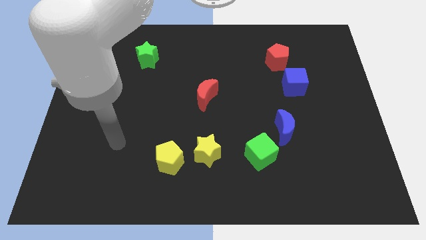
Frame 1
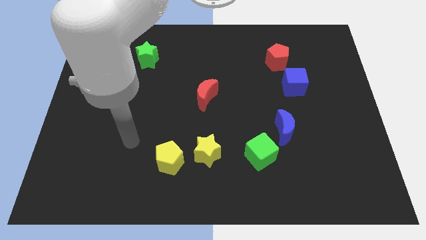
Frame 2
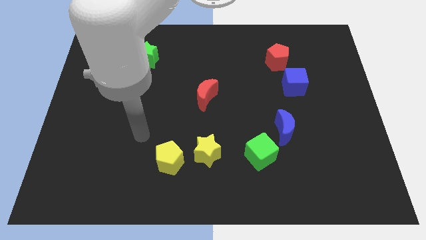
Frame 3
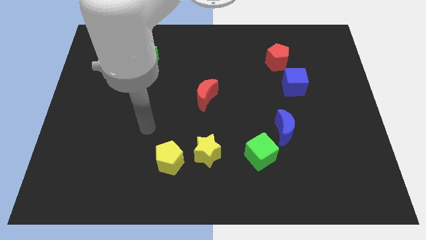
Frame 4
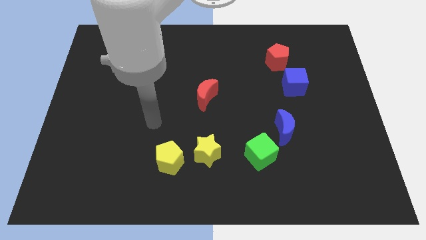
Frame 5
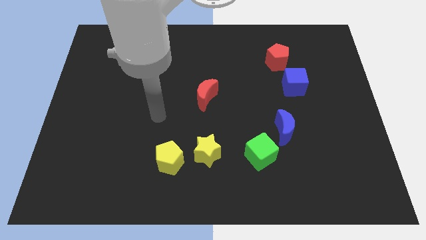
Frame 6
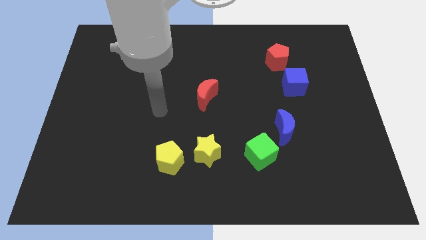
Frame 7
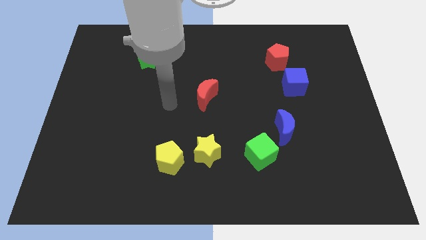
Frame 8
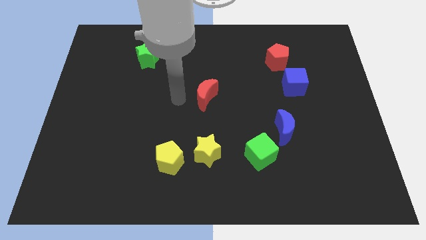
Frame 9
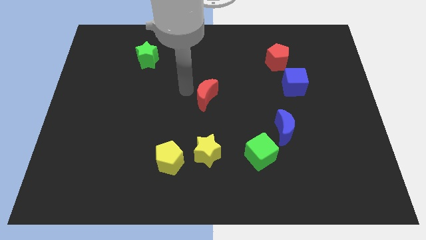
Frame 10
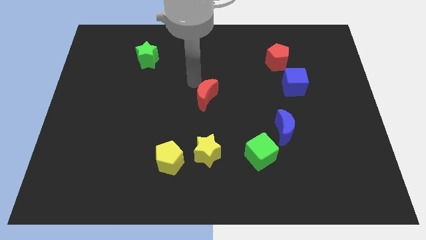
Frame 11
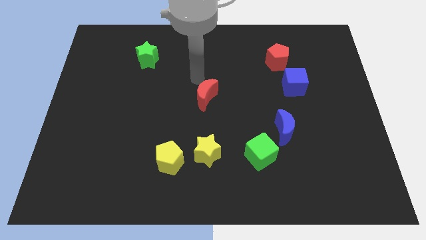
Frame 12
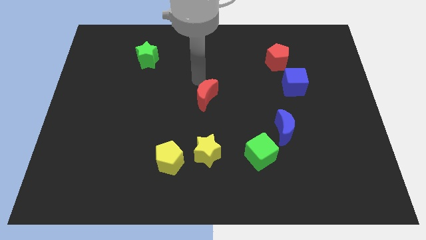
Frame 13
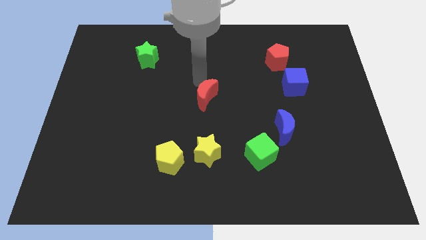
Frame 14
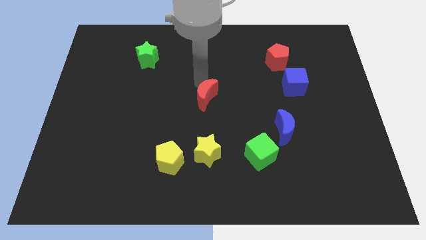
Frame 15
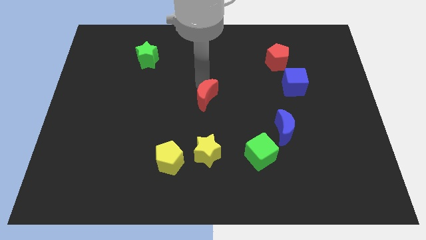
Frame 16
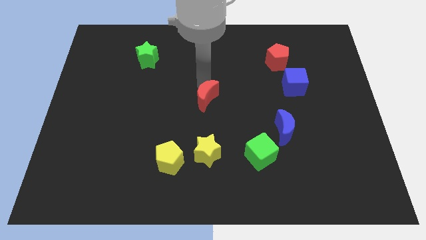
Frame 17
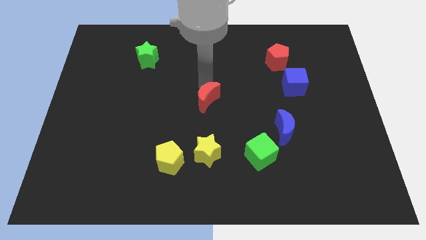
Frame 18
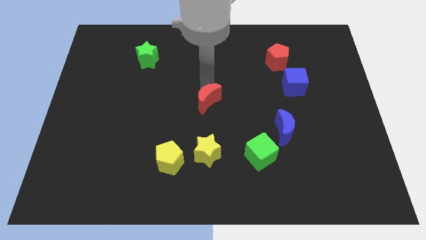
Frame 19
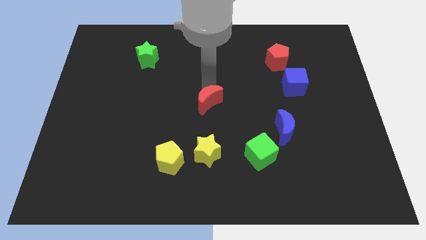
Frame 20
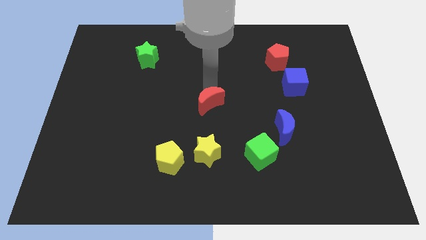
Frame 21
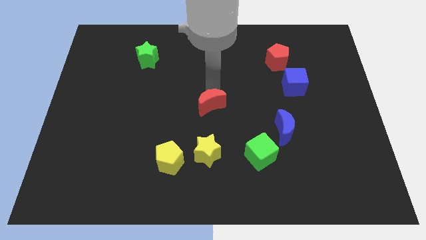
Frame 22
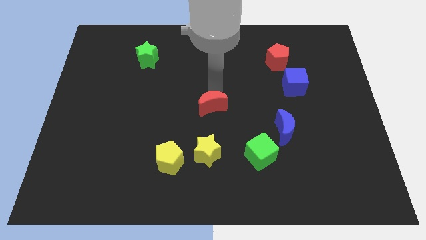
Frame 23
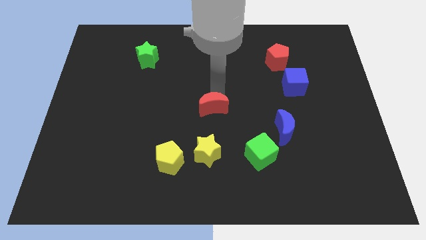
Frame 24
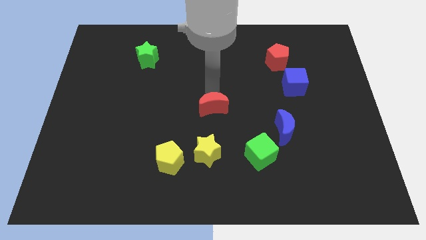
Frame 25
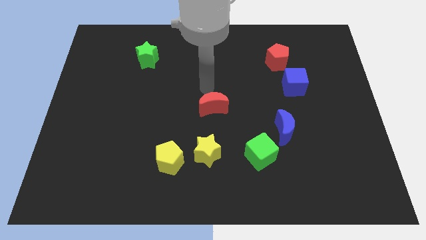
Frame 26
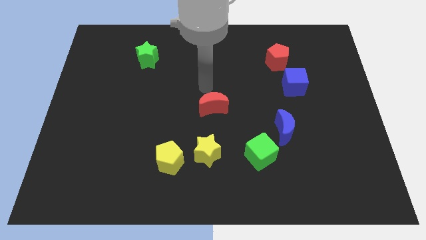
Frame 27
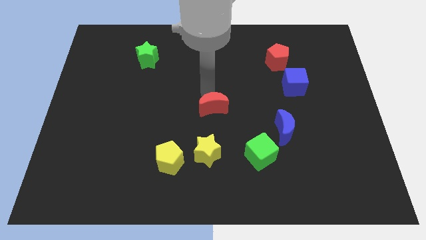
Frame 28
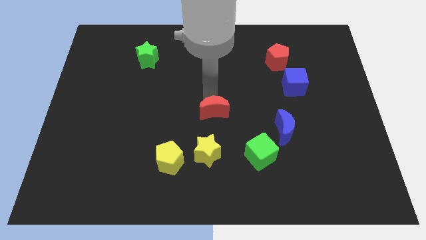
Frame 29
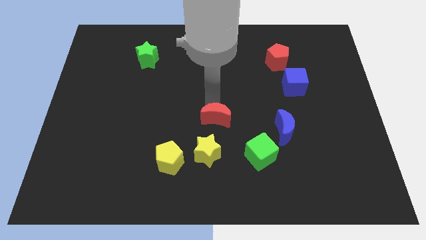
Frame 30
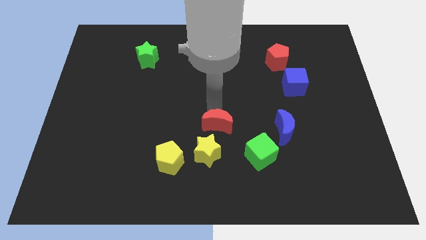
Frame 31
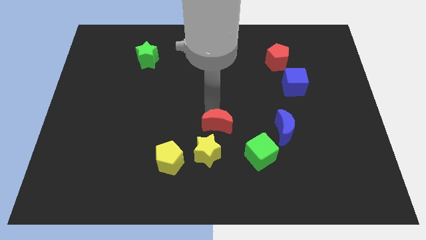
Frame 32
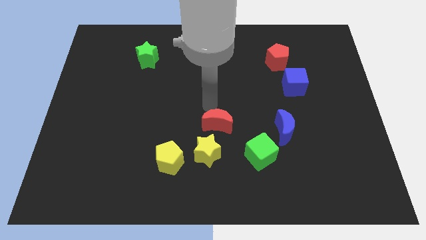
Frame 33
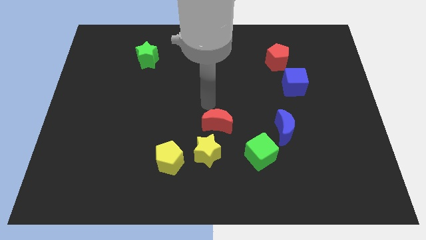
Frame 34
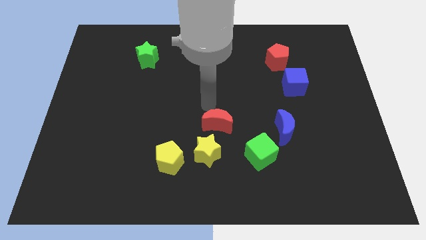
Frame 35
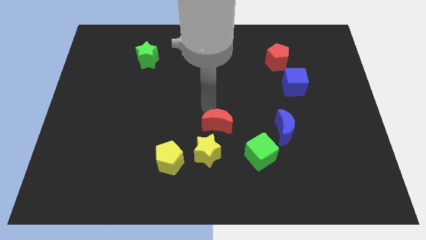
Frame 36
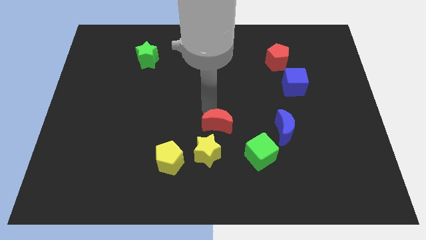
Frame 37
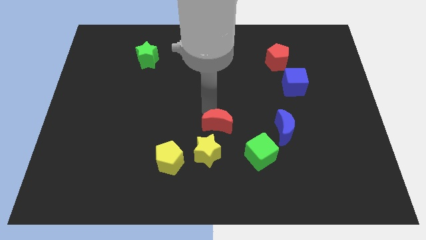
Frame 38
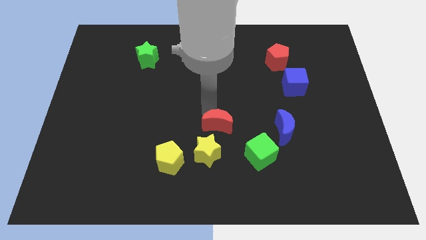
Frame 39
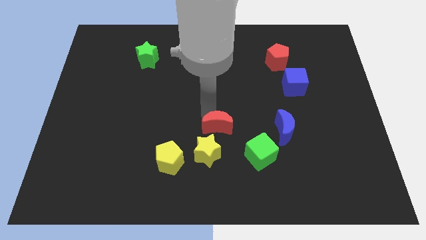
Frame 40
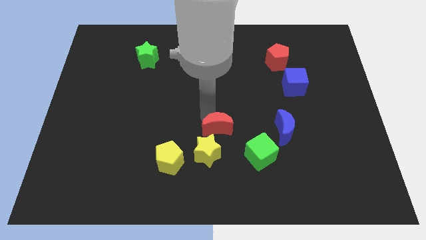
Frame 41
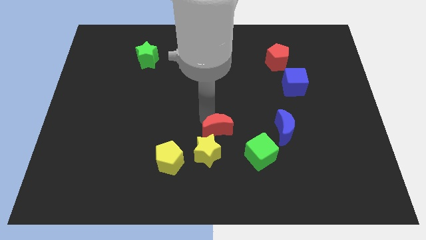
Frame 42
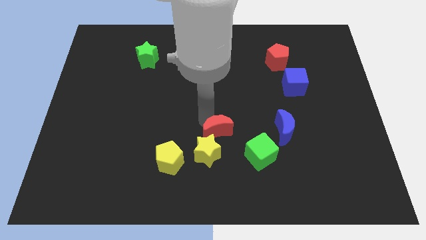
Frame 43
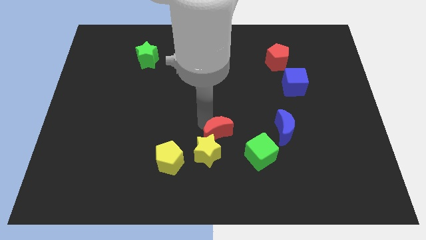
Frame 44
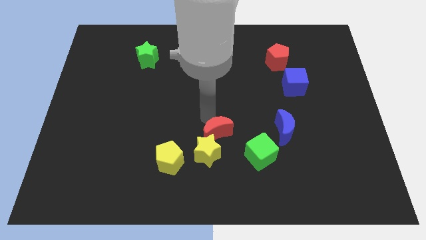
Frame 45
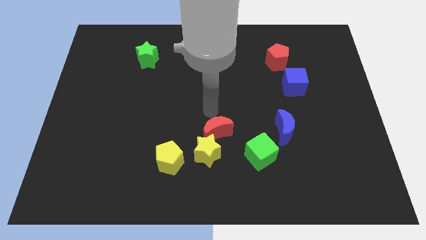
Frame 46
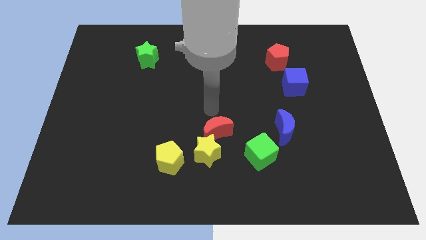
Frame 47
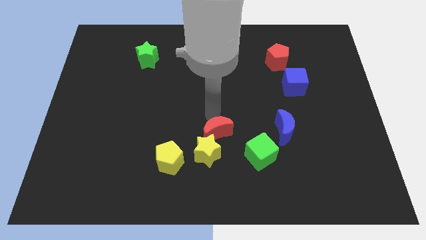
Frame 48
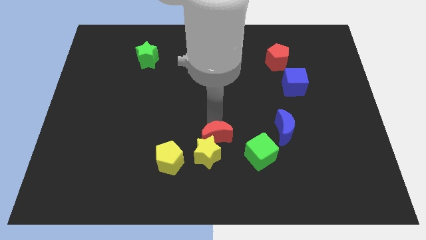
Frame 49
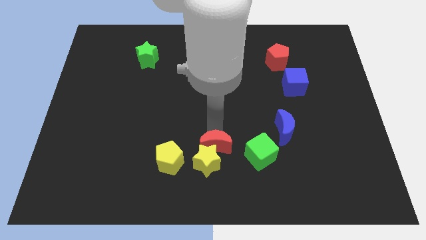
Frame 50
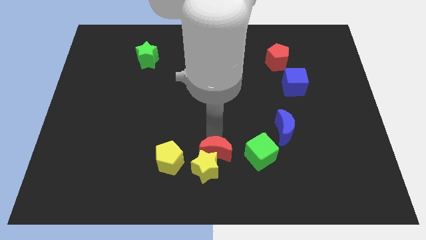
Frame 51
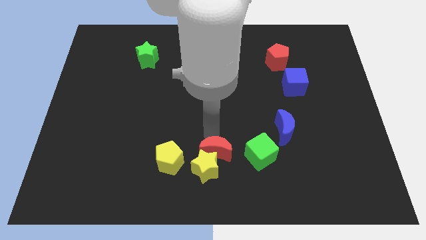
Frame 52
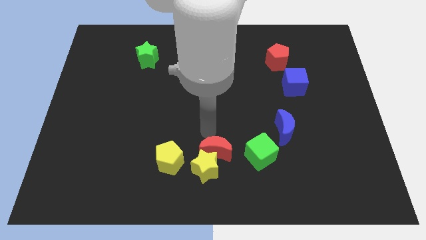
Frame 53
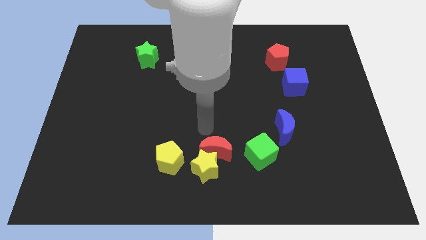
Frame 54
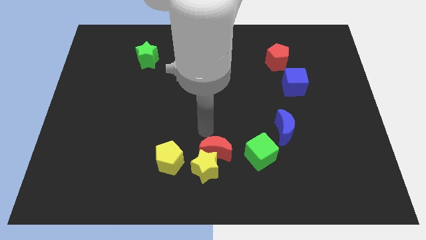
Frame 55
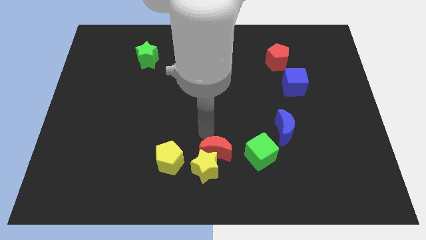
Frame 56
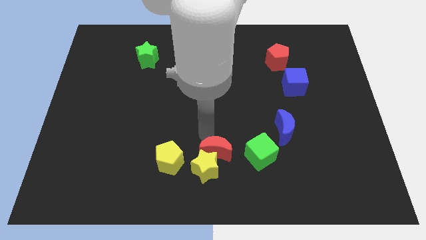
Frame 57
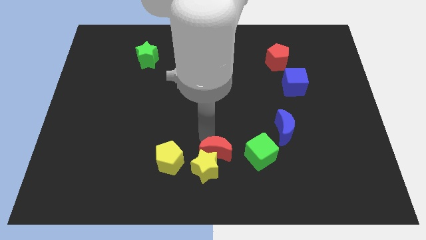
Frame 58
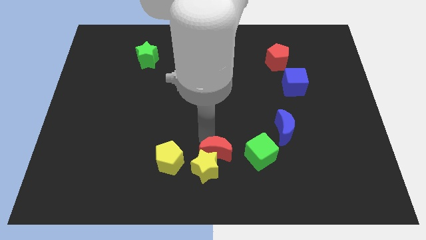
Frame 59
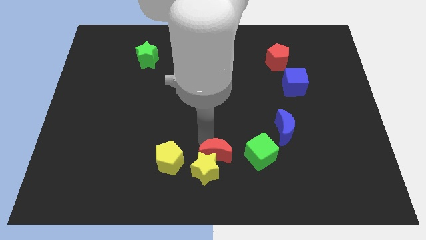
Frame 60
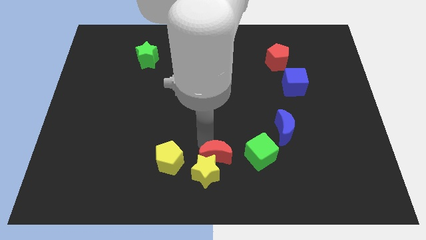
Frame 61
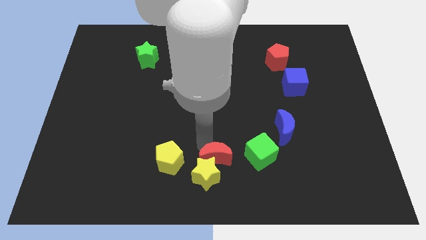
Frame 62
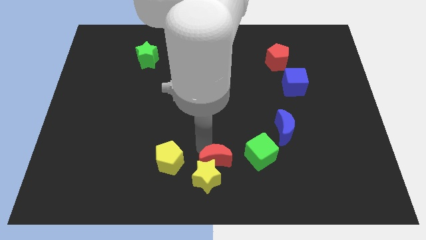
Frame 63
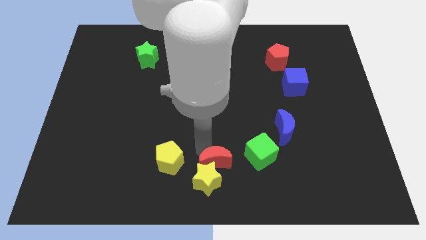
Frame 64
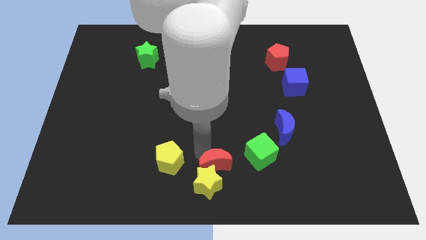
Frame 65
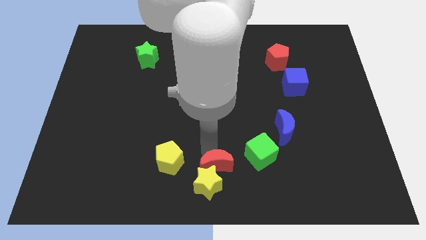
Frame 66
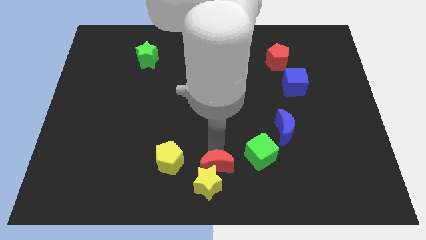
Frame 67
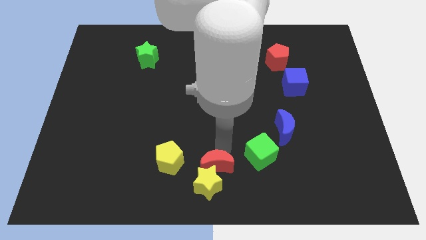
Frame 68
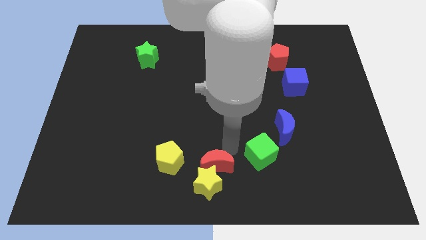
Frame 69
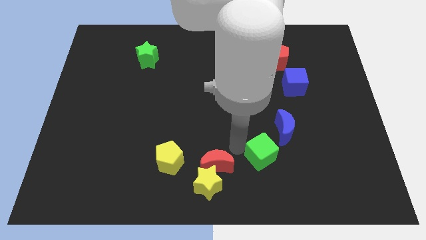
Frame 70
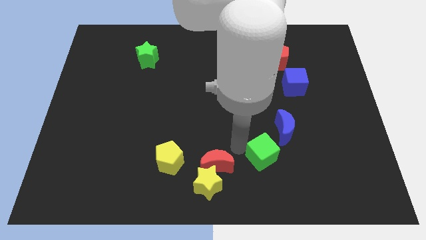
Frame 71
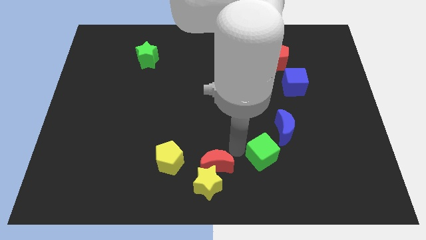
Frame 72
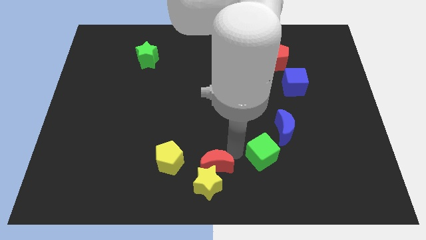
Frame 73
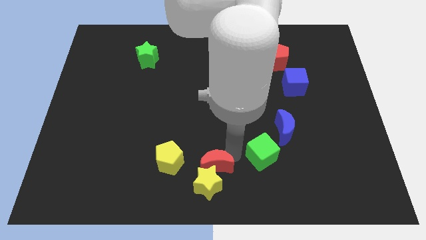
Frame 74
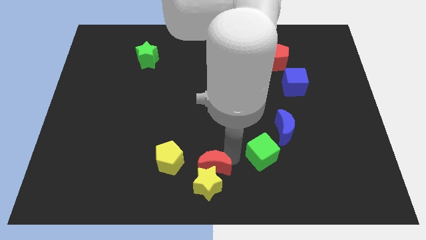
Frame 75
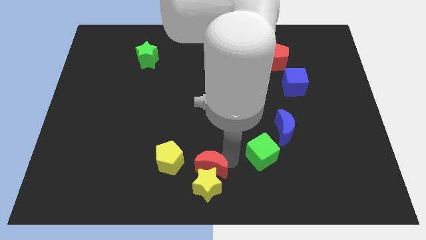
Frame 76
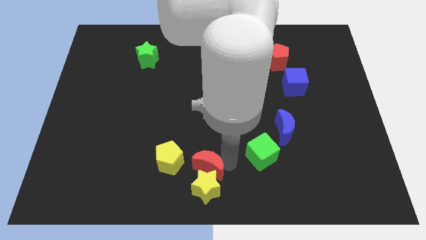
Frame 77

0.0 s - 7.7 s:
put the red moon to the bottom right of the yellow pentagon
